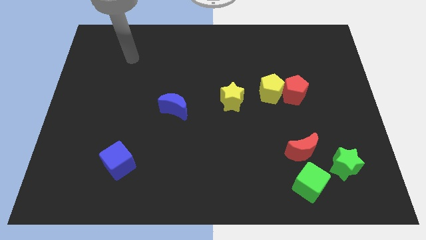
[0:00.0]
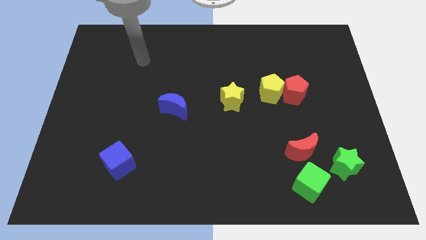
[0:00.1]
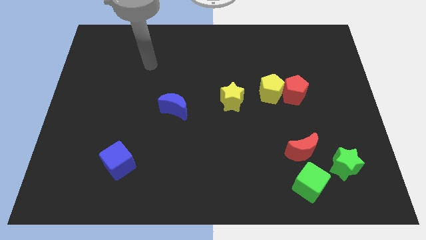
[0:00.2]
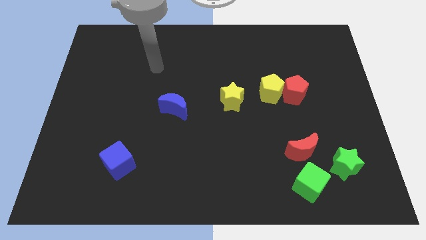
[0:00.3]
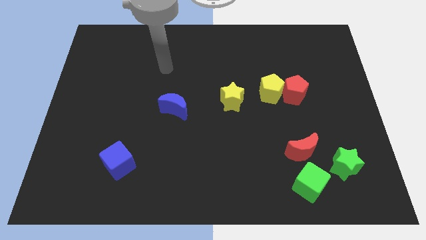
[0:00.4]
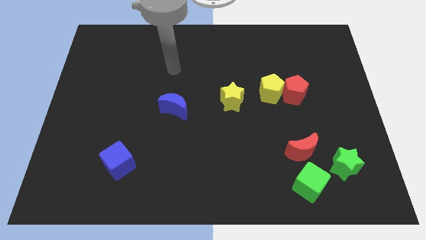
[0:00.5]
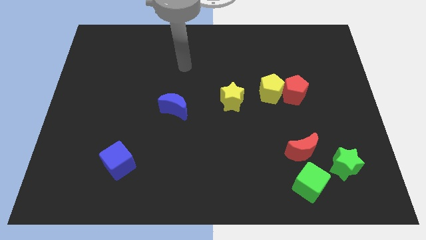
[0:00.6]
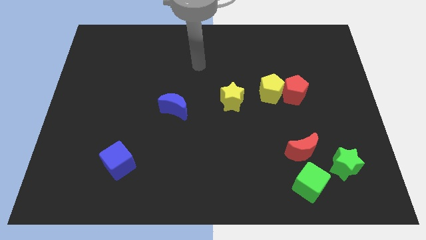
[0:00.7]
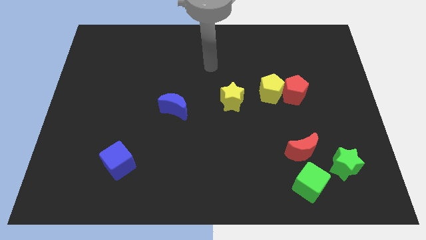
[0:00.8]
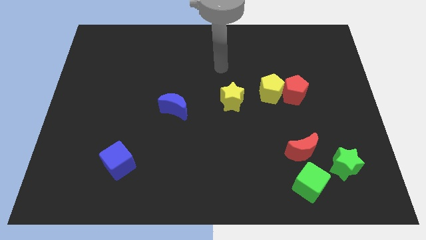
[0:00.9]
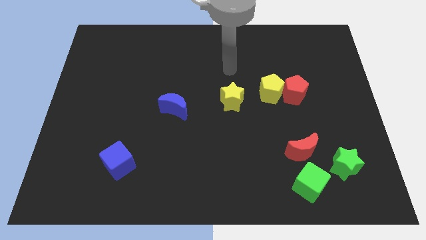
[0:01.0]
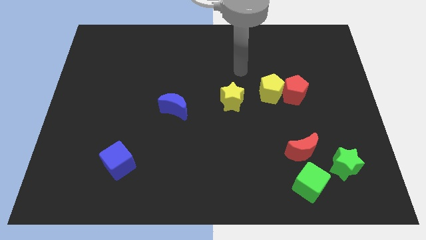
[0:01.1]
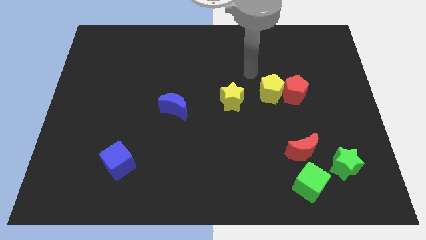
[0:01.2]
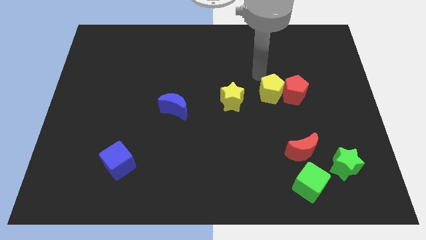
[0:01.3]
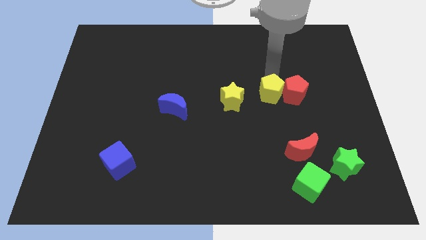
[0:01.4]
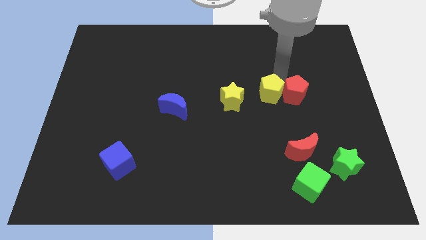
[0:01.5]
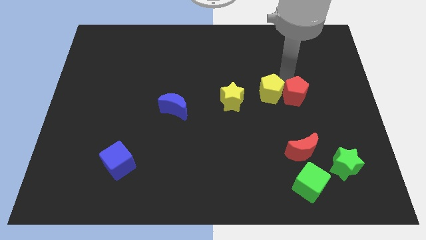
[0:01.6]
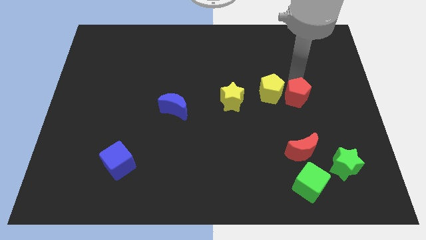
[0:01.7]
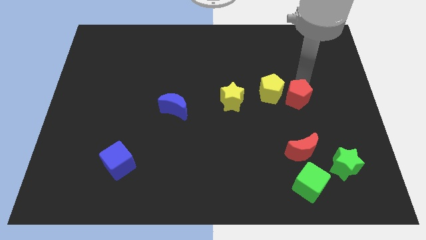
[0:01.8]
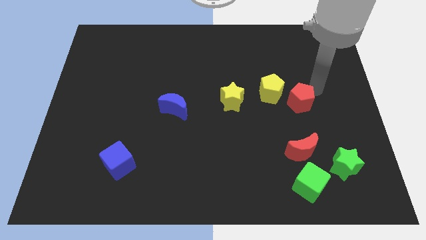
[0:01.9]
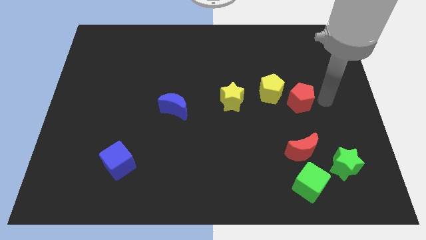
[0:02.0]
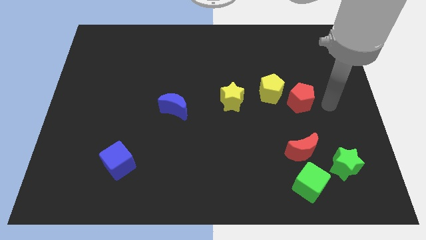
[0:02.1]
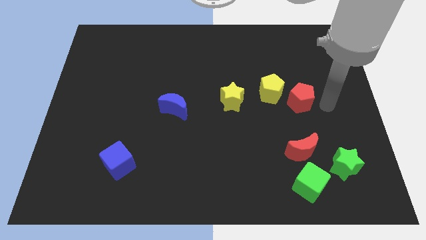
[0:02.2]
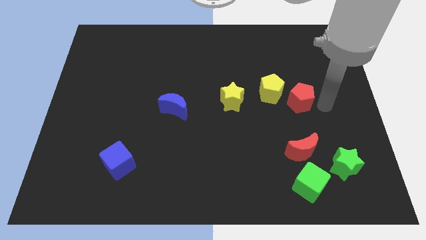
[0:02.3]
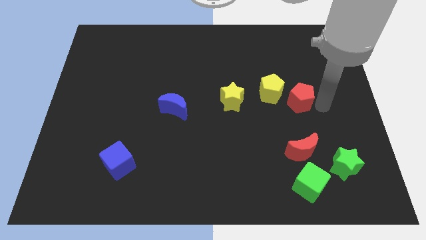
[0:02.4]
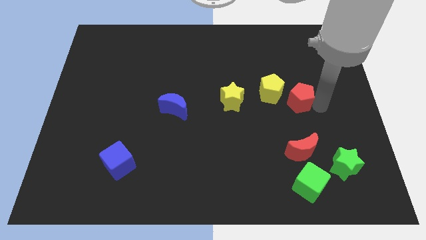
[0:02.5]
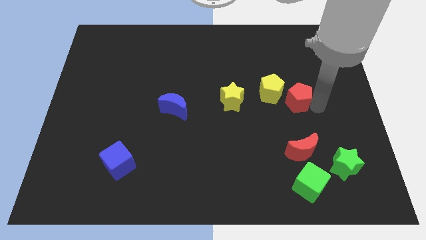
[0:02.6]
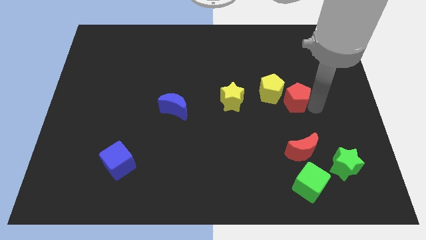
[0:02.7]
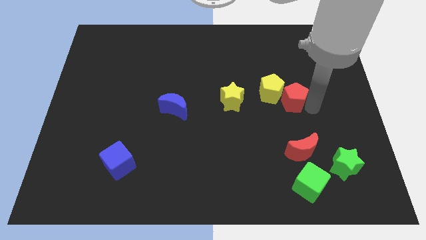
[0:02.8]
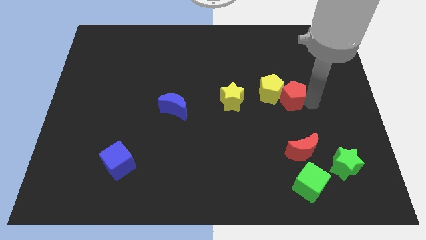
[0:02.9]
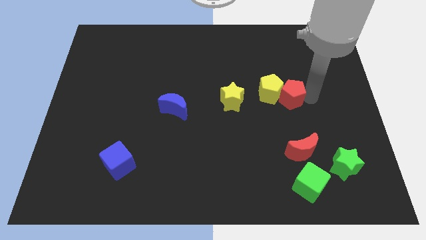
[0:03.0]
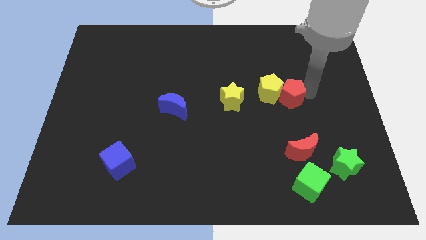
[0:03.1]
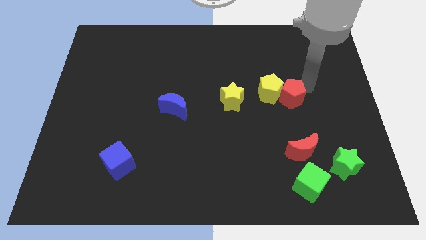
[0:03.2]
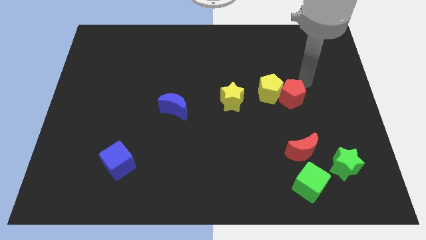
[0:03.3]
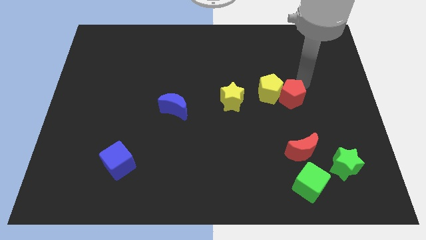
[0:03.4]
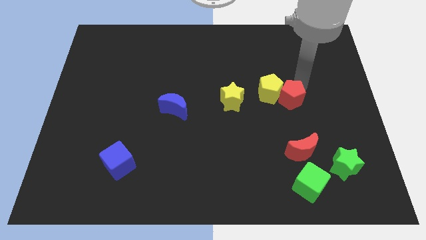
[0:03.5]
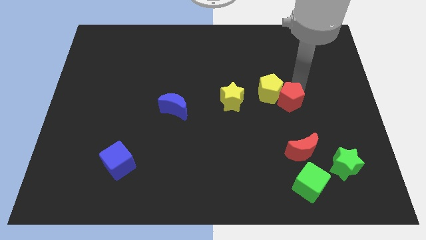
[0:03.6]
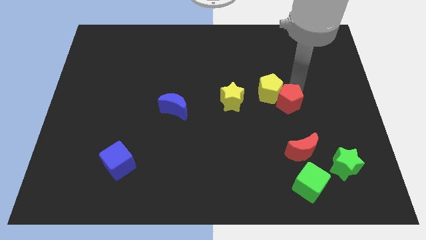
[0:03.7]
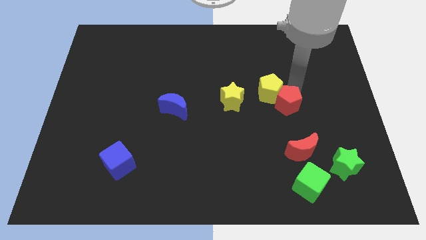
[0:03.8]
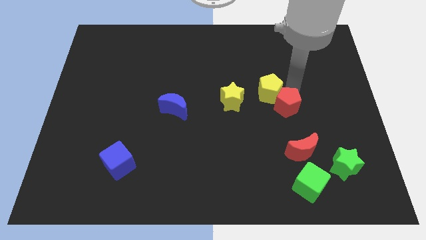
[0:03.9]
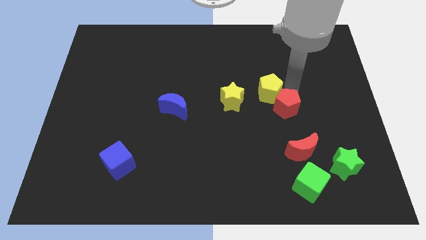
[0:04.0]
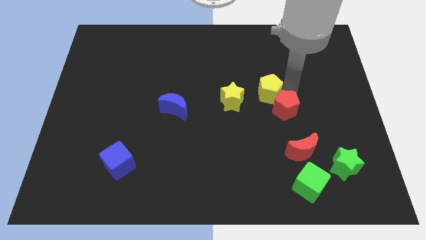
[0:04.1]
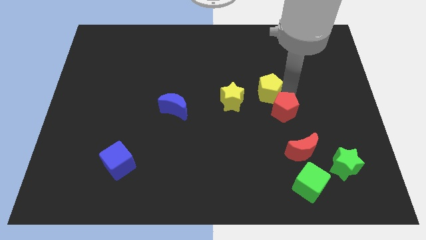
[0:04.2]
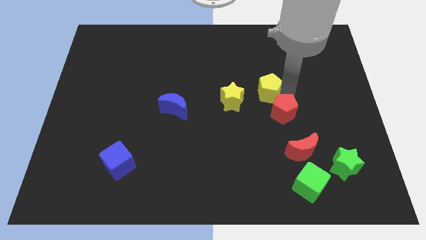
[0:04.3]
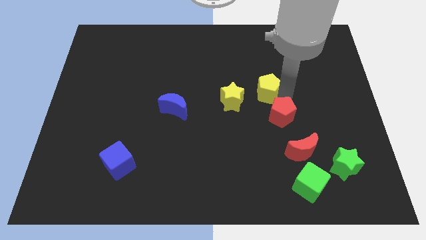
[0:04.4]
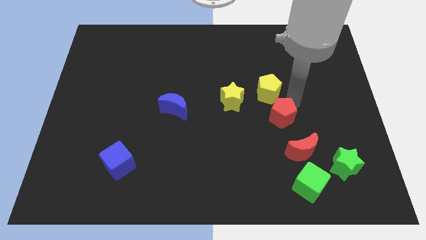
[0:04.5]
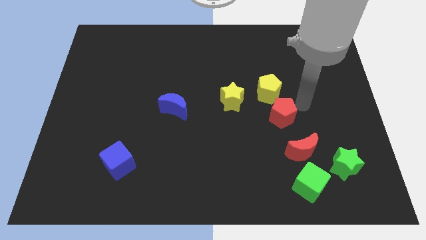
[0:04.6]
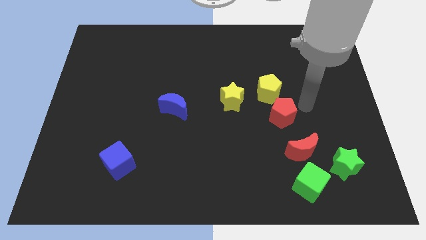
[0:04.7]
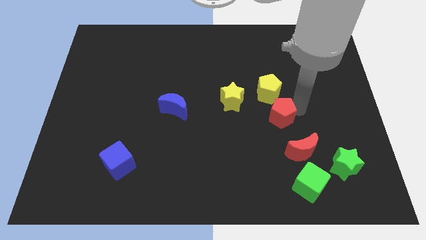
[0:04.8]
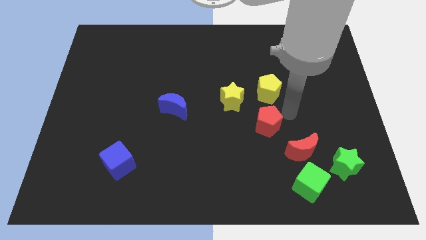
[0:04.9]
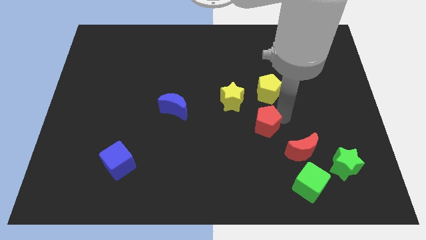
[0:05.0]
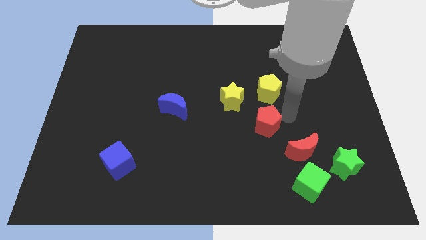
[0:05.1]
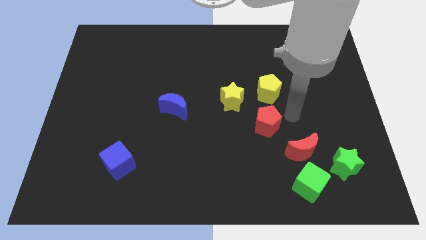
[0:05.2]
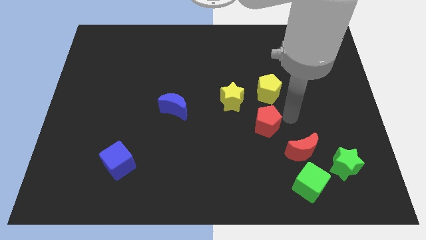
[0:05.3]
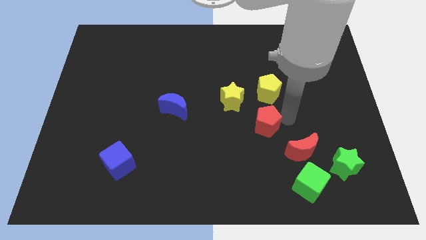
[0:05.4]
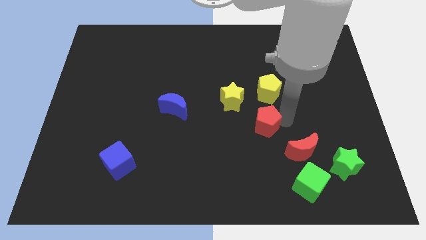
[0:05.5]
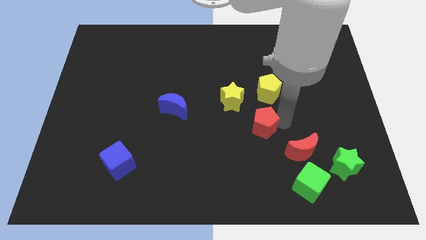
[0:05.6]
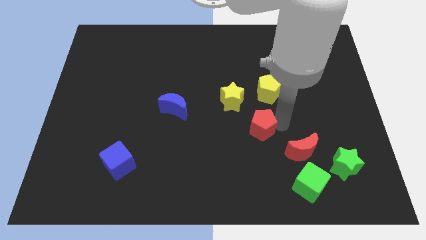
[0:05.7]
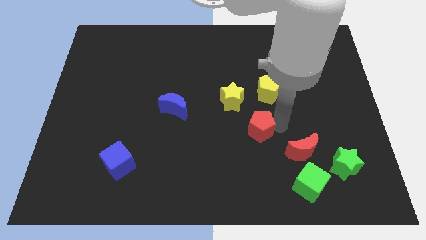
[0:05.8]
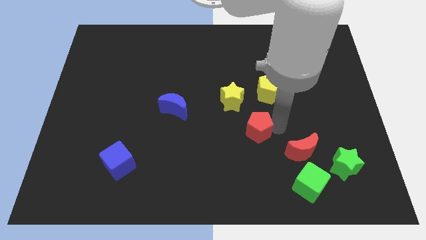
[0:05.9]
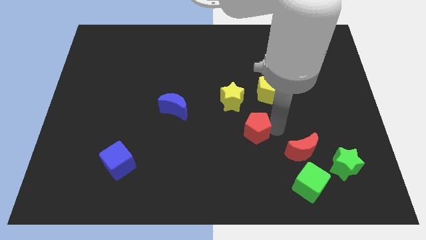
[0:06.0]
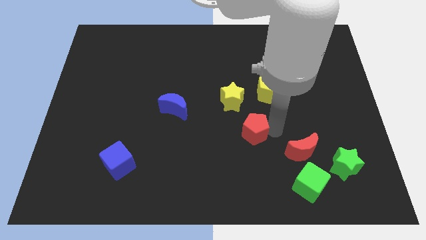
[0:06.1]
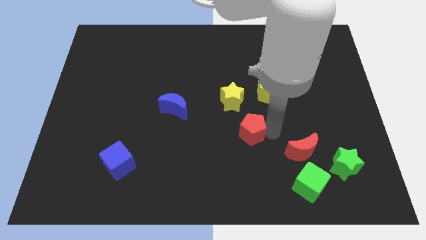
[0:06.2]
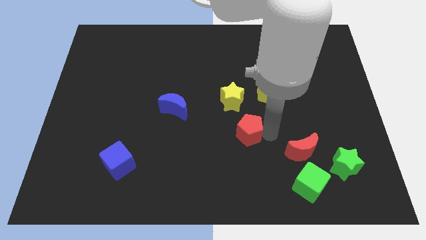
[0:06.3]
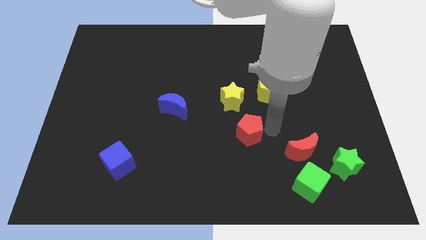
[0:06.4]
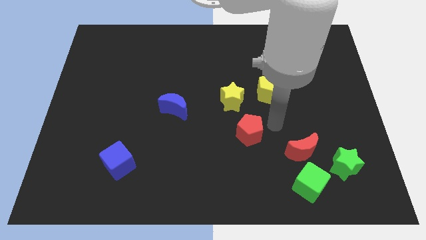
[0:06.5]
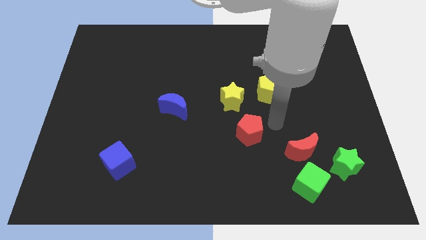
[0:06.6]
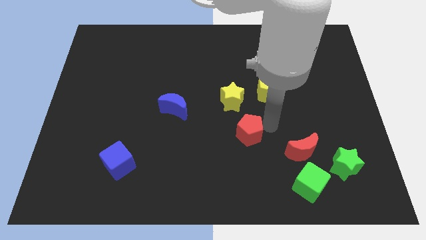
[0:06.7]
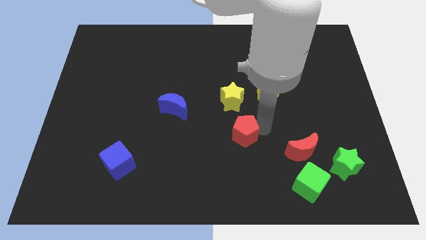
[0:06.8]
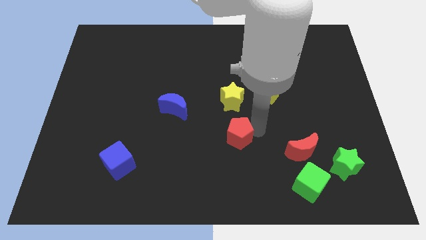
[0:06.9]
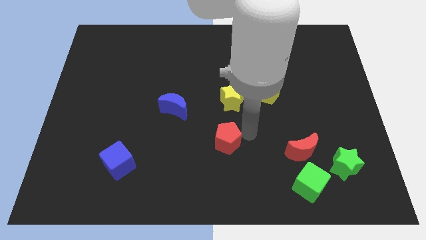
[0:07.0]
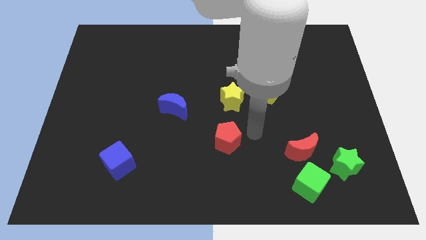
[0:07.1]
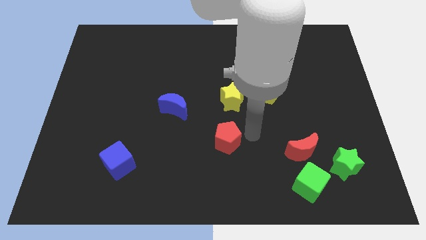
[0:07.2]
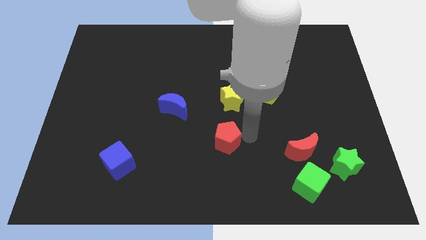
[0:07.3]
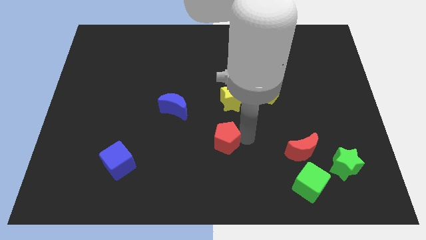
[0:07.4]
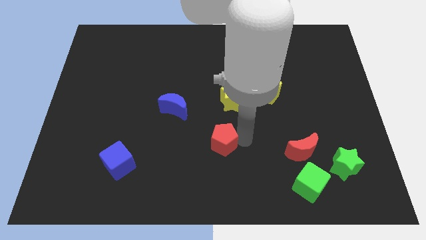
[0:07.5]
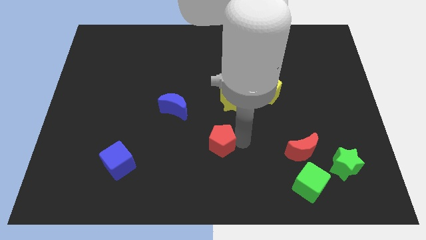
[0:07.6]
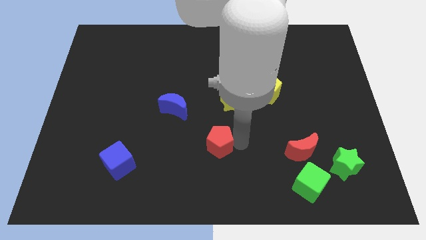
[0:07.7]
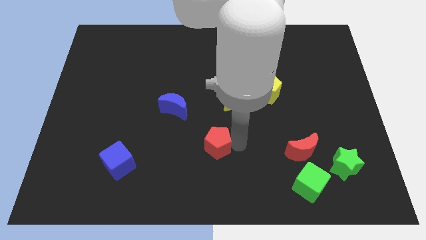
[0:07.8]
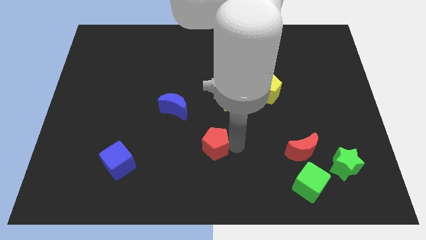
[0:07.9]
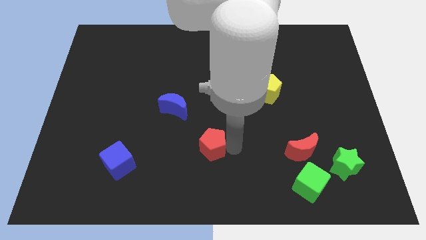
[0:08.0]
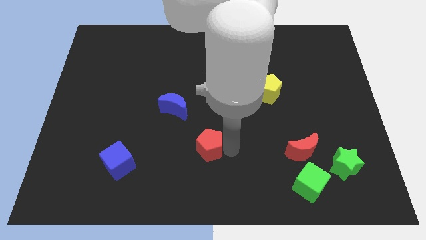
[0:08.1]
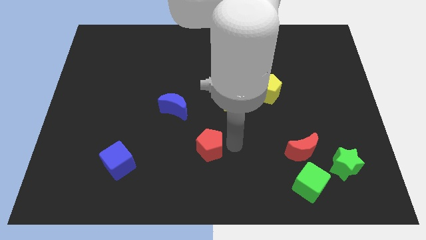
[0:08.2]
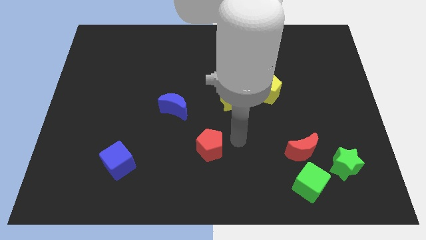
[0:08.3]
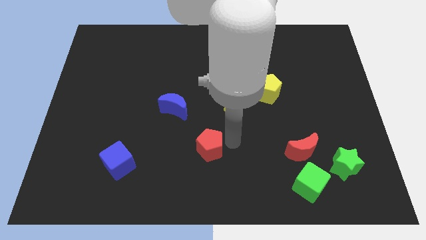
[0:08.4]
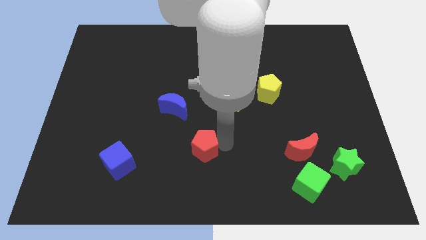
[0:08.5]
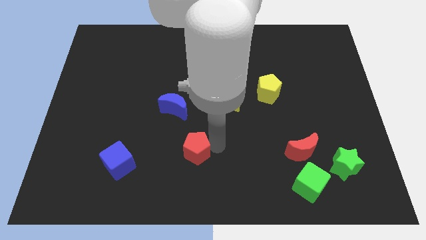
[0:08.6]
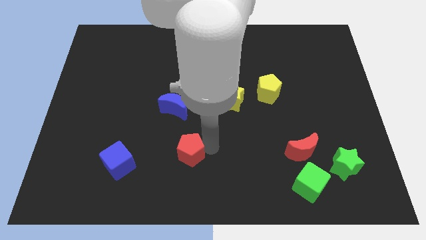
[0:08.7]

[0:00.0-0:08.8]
move the red pentagon to the right side of the blue cube
